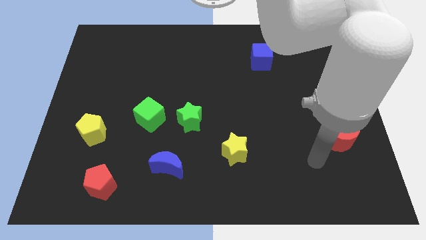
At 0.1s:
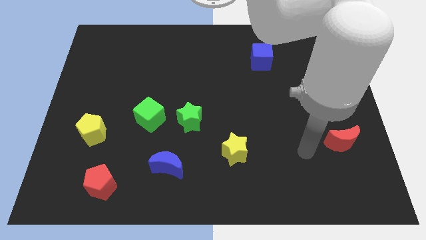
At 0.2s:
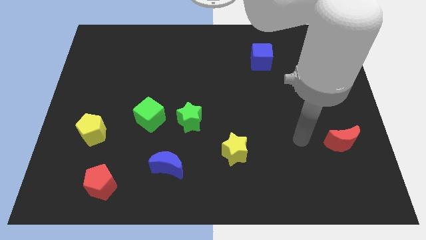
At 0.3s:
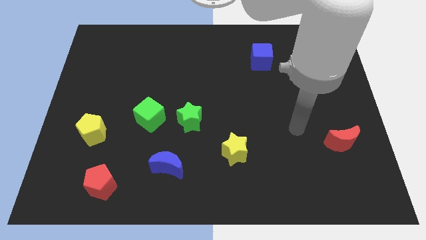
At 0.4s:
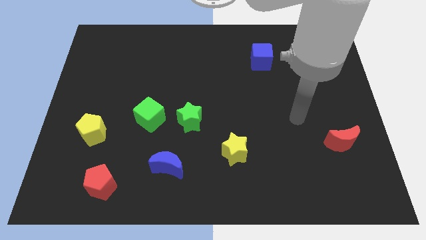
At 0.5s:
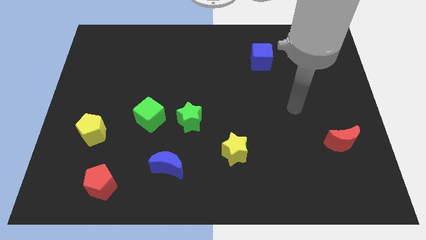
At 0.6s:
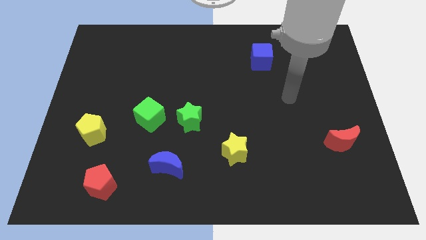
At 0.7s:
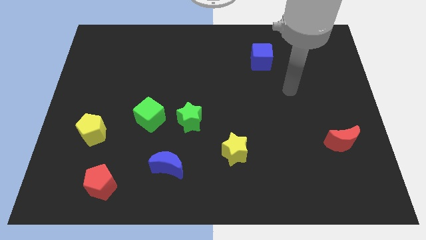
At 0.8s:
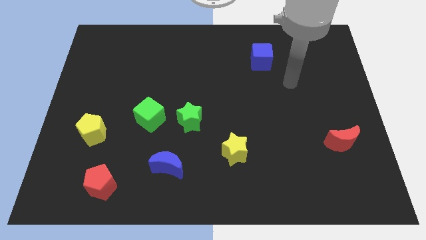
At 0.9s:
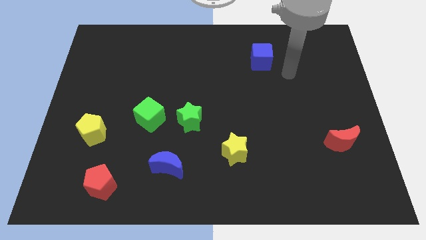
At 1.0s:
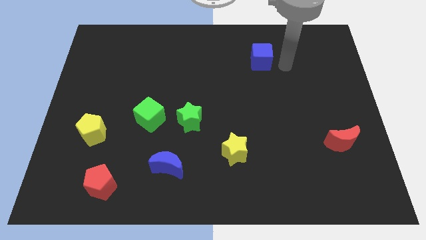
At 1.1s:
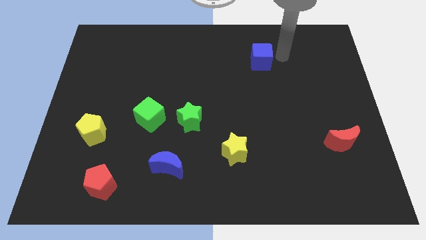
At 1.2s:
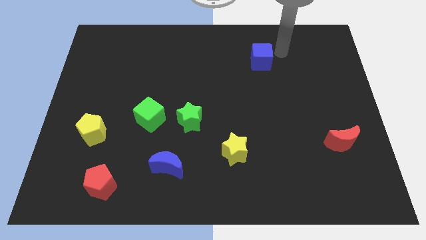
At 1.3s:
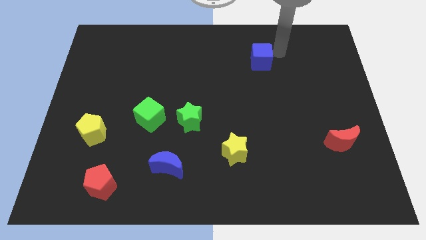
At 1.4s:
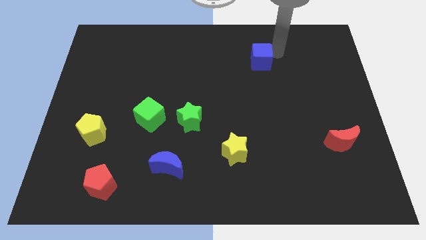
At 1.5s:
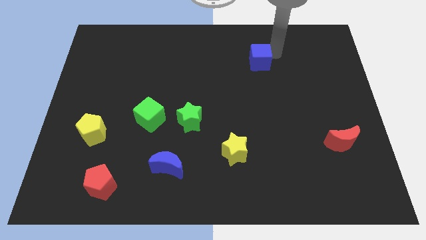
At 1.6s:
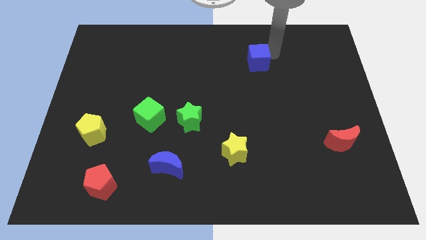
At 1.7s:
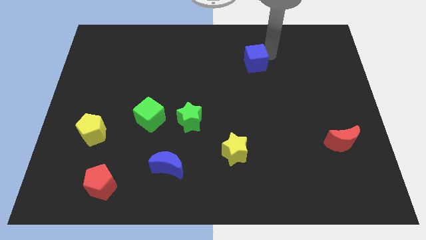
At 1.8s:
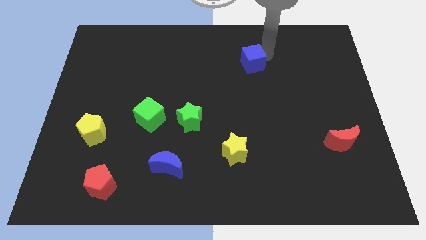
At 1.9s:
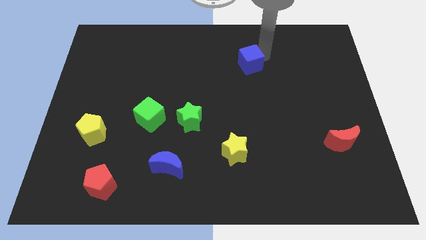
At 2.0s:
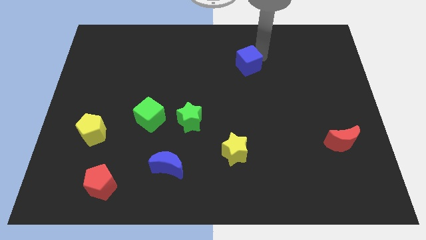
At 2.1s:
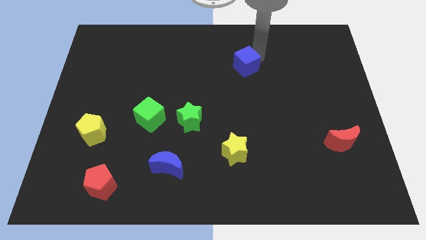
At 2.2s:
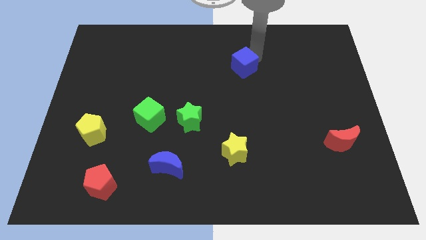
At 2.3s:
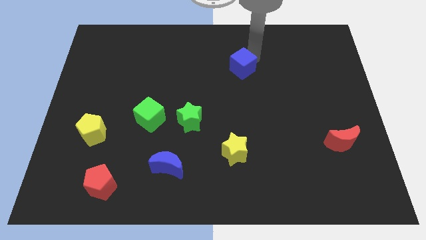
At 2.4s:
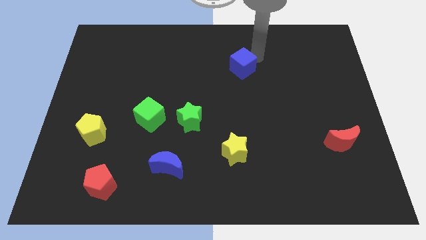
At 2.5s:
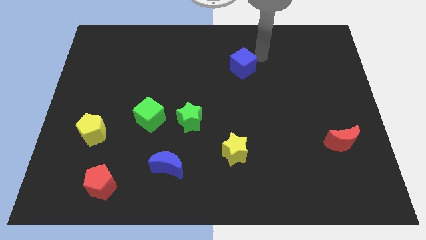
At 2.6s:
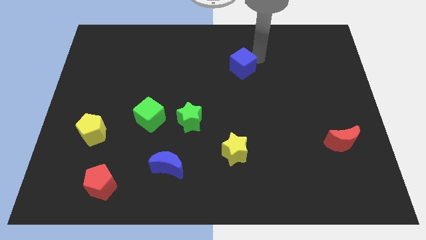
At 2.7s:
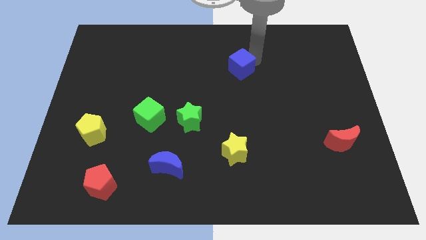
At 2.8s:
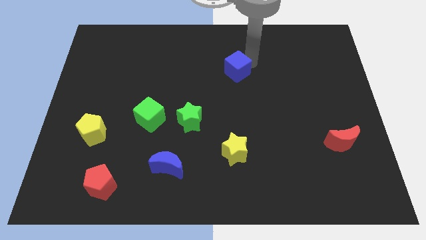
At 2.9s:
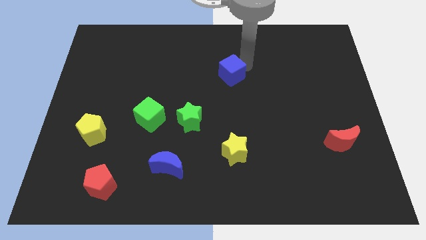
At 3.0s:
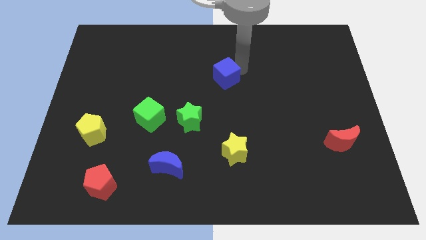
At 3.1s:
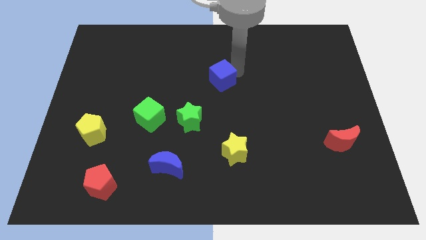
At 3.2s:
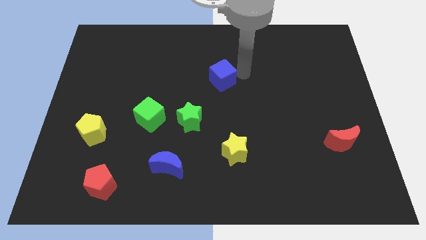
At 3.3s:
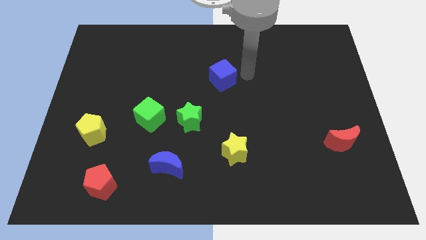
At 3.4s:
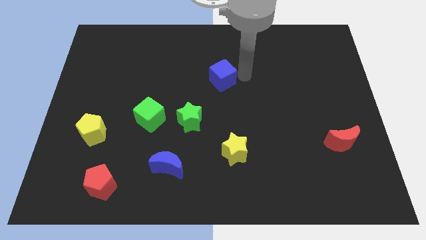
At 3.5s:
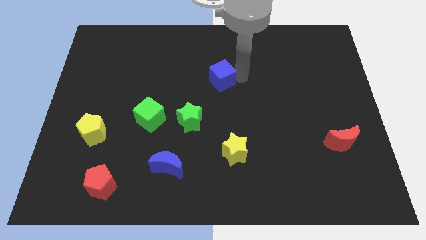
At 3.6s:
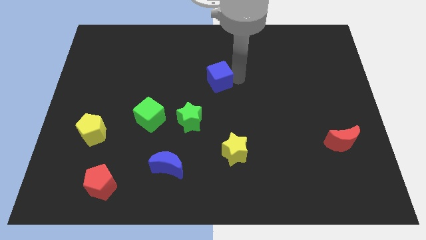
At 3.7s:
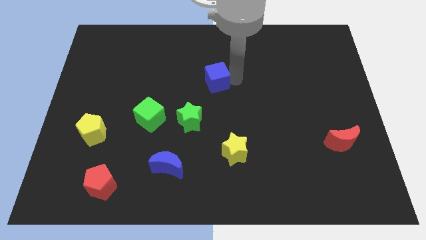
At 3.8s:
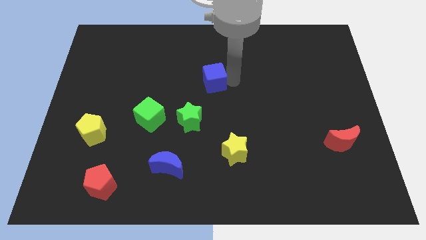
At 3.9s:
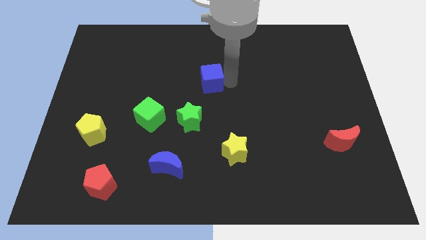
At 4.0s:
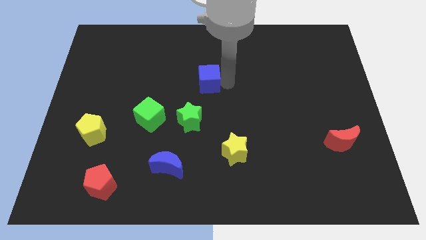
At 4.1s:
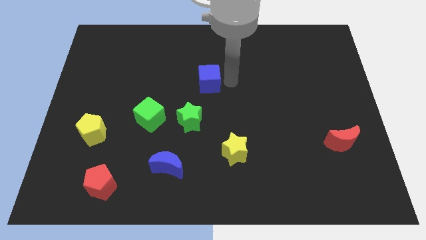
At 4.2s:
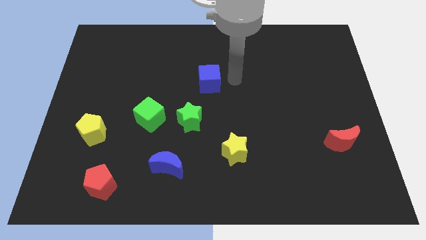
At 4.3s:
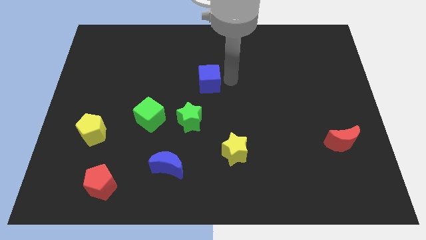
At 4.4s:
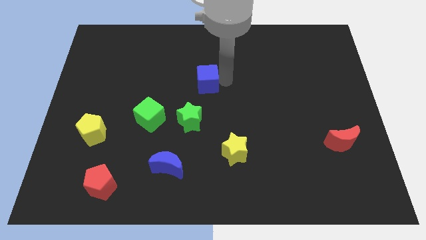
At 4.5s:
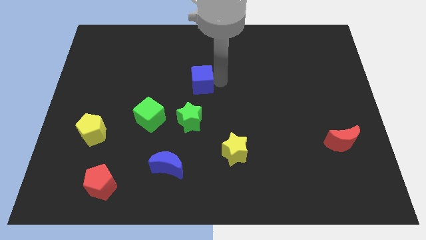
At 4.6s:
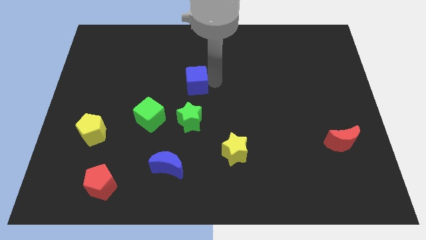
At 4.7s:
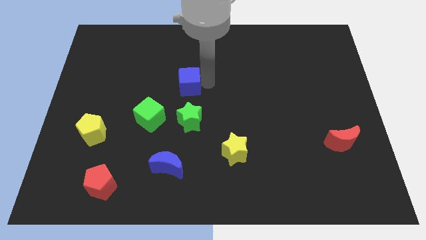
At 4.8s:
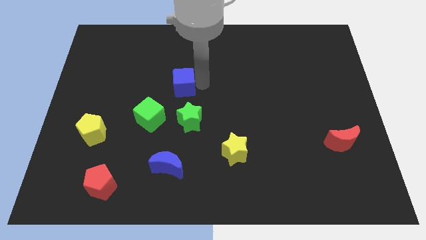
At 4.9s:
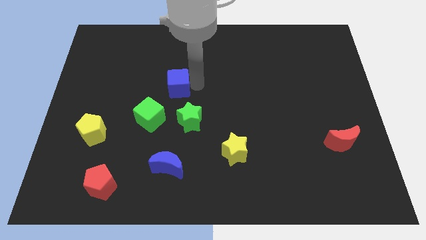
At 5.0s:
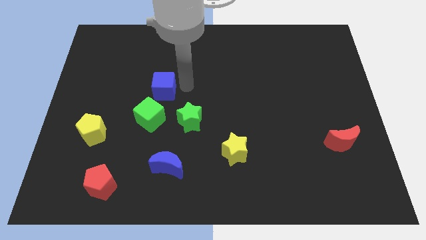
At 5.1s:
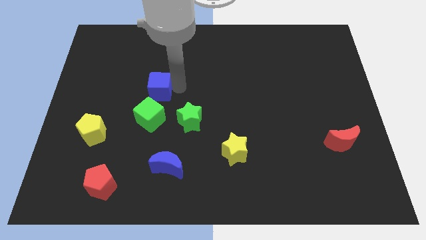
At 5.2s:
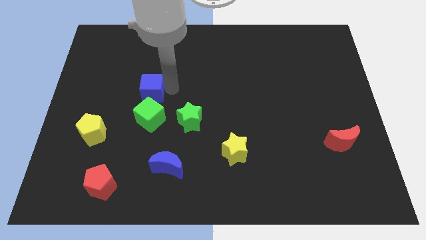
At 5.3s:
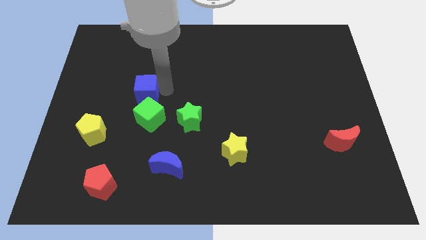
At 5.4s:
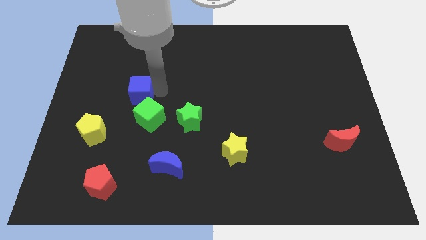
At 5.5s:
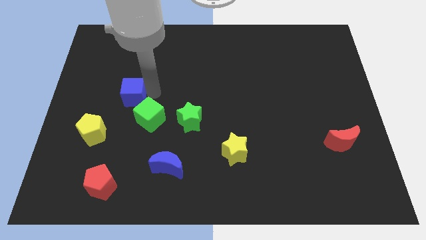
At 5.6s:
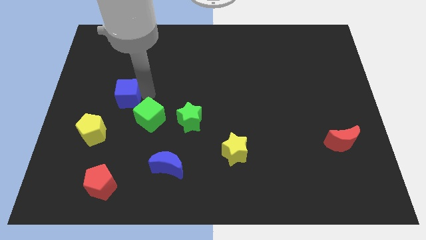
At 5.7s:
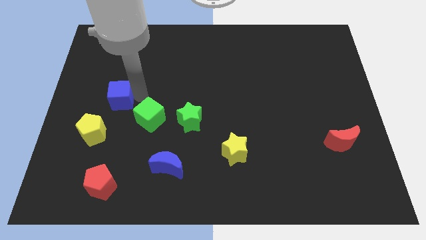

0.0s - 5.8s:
move the blue cube to the top of the yellow pentagon

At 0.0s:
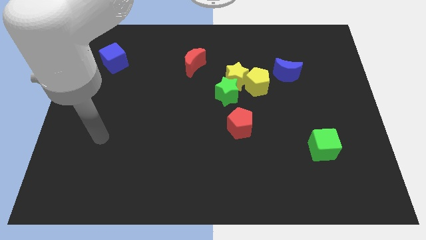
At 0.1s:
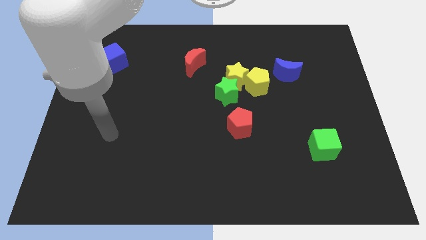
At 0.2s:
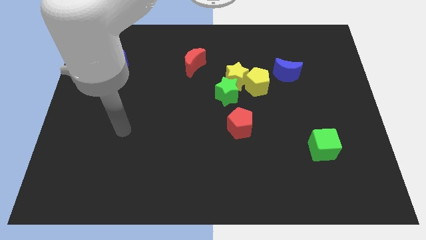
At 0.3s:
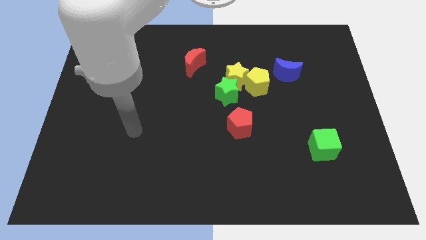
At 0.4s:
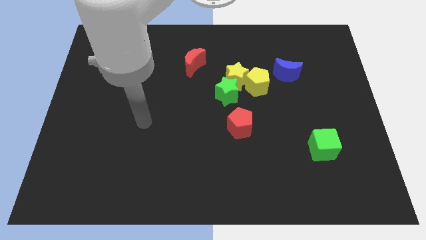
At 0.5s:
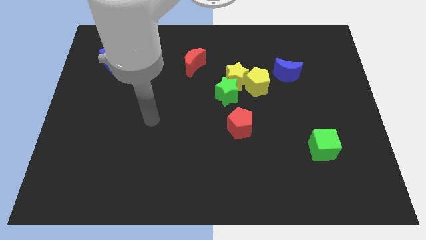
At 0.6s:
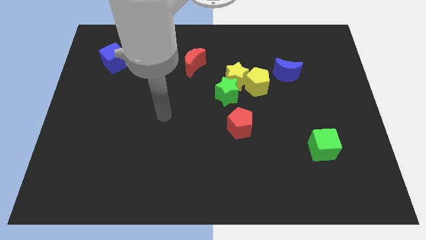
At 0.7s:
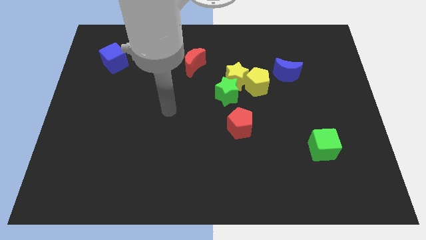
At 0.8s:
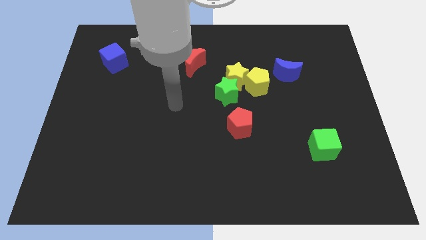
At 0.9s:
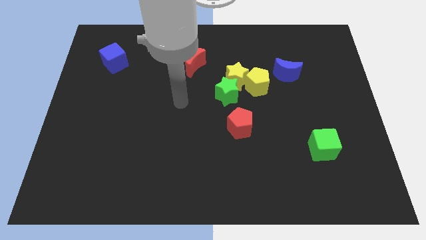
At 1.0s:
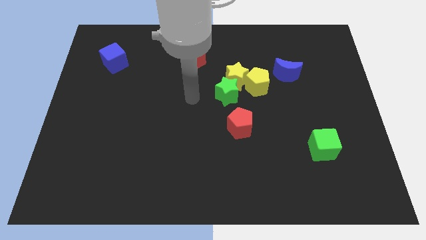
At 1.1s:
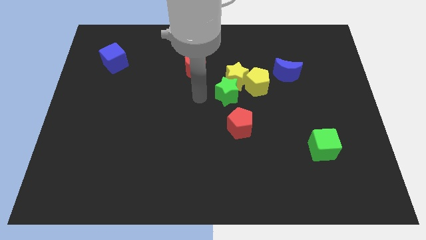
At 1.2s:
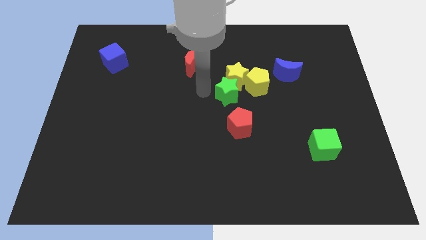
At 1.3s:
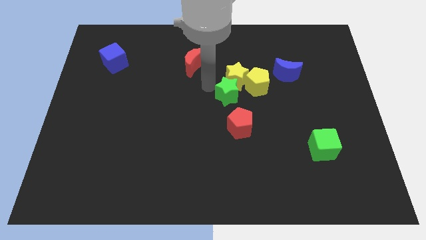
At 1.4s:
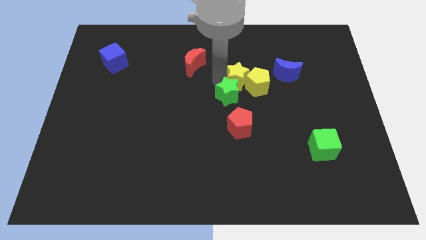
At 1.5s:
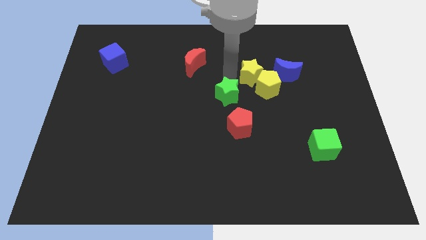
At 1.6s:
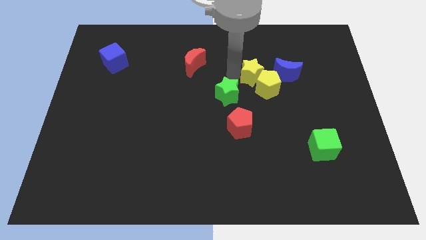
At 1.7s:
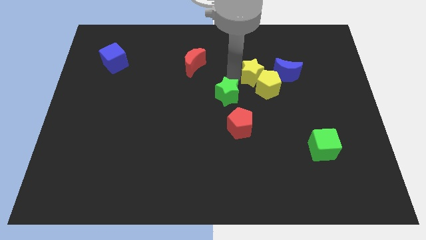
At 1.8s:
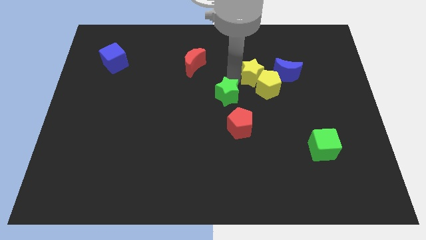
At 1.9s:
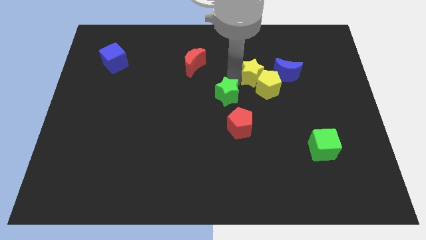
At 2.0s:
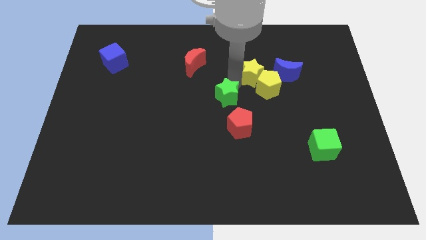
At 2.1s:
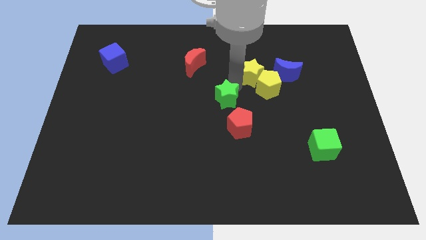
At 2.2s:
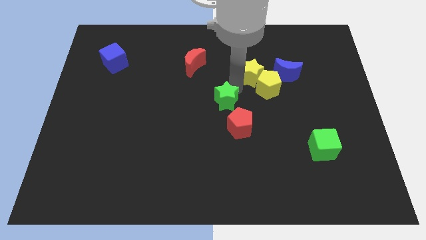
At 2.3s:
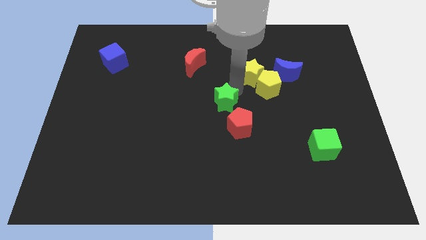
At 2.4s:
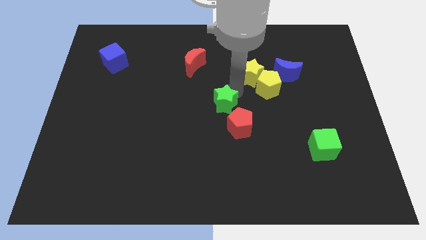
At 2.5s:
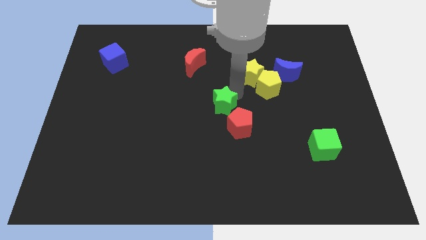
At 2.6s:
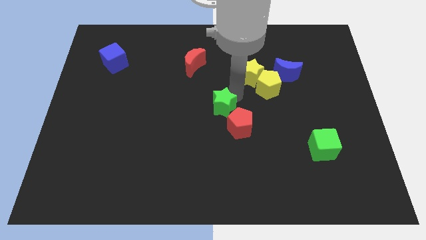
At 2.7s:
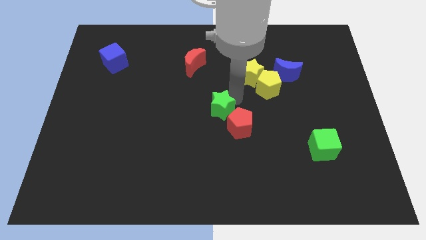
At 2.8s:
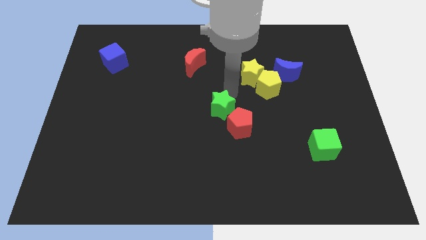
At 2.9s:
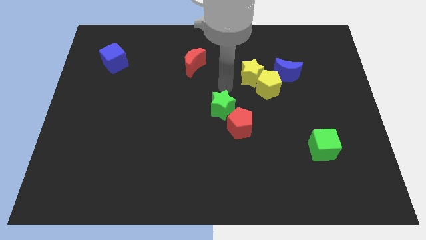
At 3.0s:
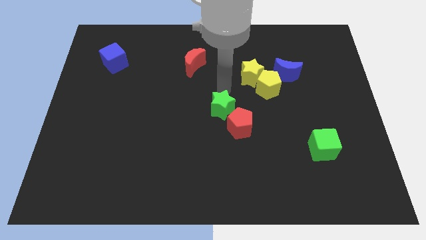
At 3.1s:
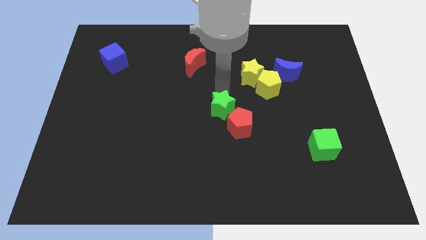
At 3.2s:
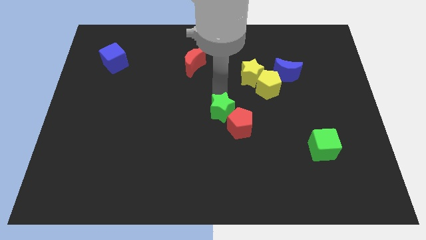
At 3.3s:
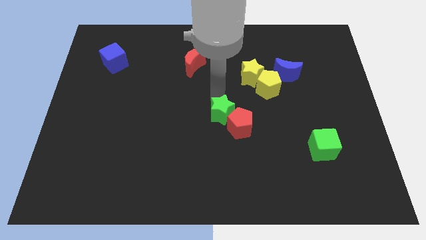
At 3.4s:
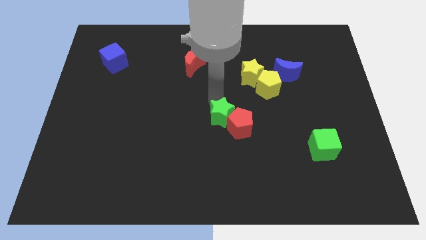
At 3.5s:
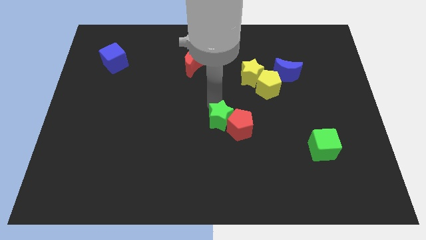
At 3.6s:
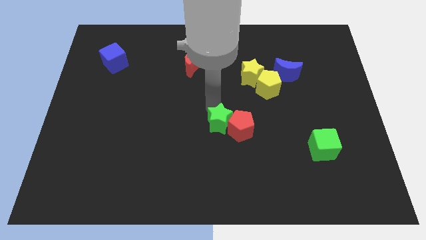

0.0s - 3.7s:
put the green star diagonally down and to the left of the red pentagon
